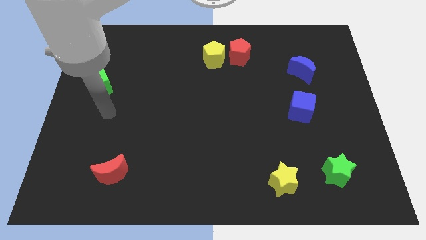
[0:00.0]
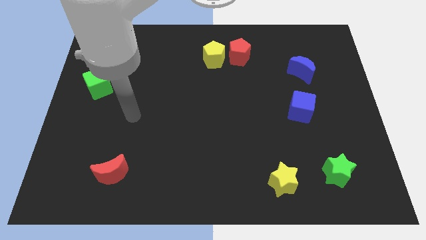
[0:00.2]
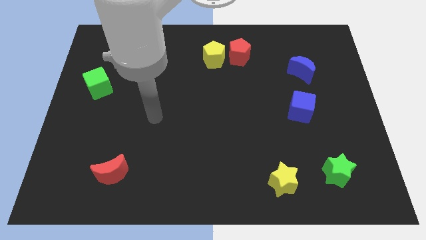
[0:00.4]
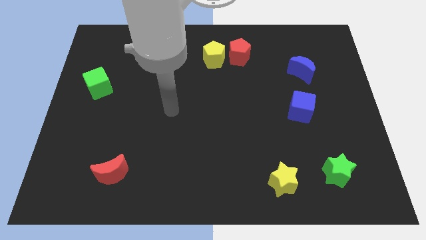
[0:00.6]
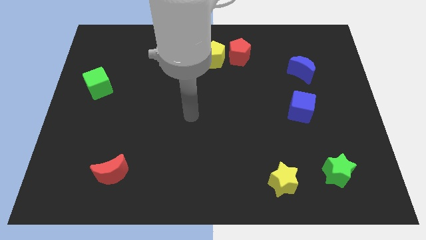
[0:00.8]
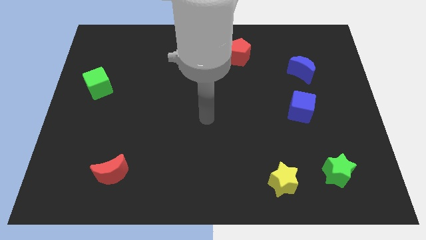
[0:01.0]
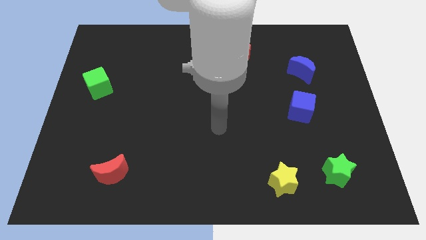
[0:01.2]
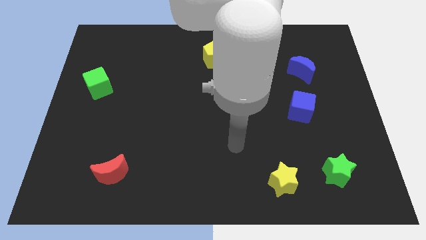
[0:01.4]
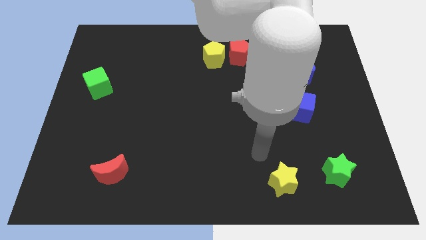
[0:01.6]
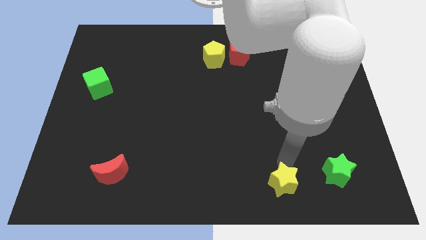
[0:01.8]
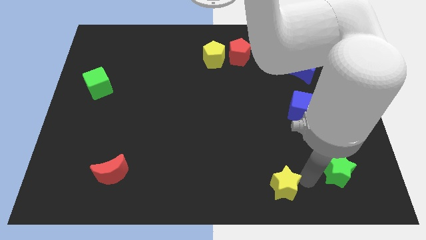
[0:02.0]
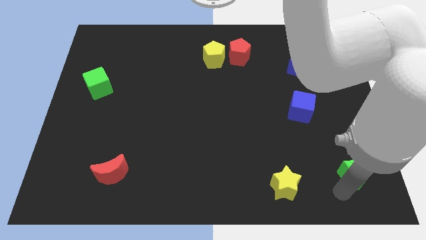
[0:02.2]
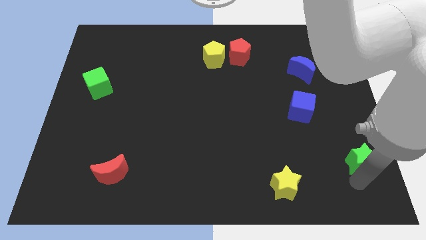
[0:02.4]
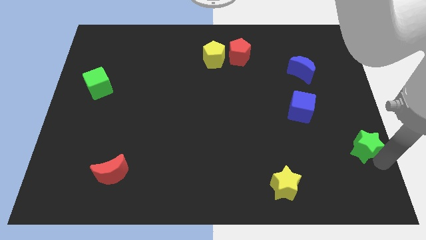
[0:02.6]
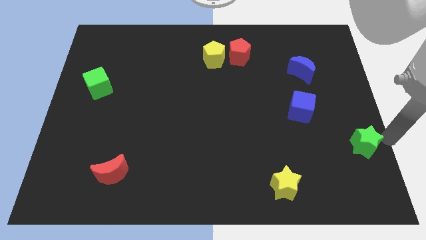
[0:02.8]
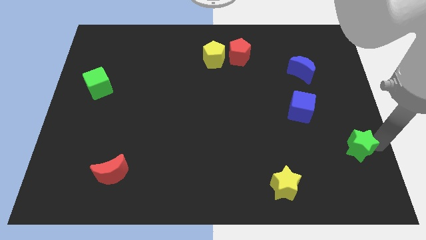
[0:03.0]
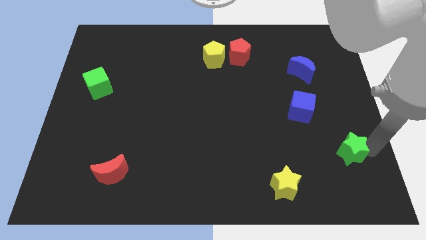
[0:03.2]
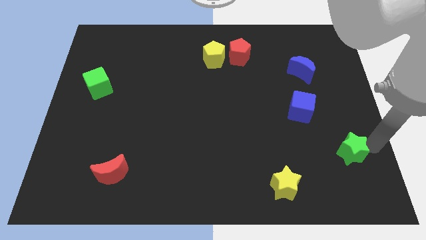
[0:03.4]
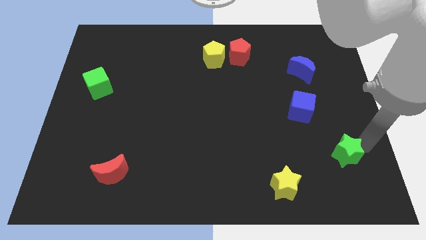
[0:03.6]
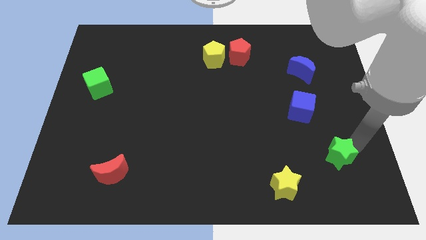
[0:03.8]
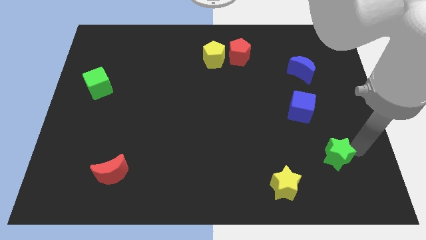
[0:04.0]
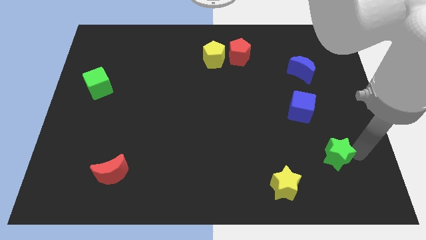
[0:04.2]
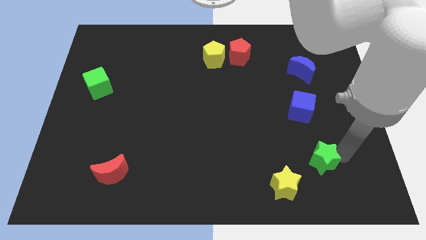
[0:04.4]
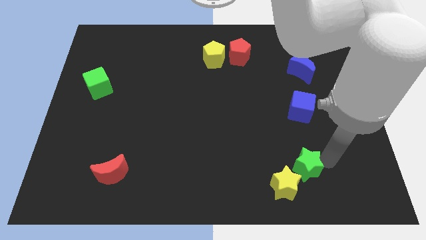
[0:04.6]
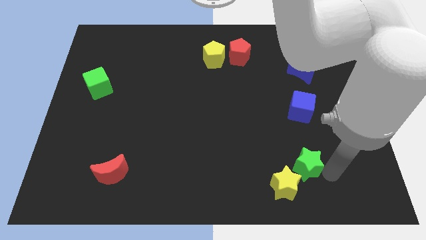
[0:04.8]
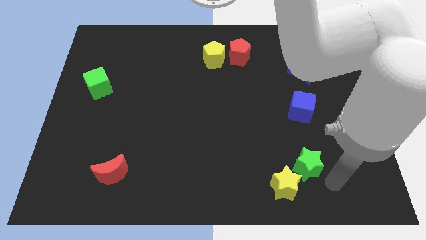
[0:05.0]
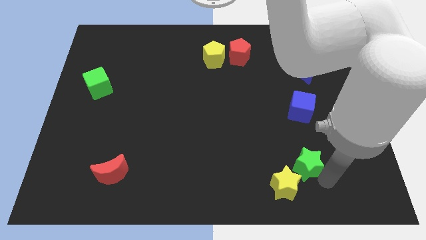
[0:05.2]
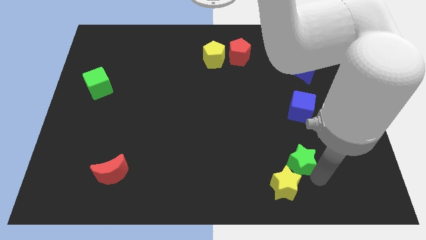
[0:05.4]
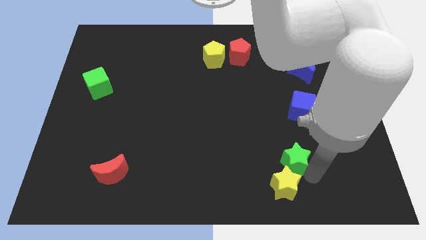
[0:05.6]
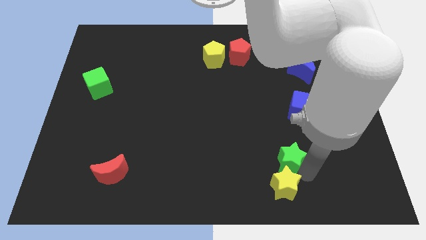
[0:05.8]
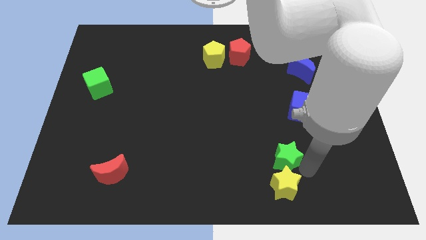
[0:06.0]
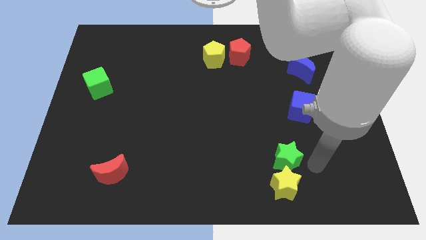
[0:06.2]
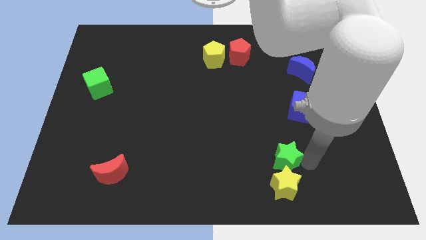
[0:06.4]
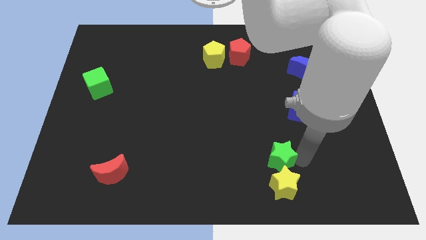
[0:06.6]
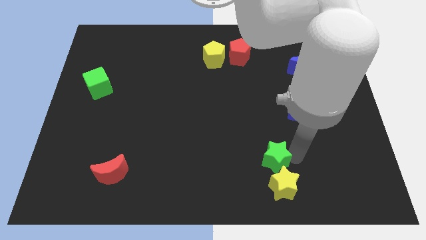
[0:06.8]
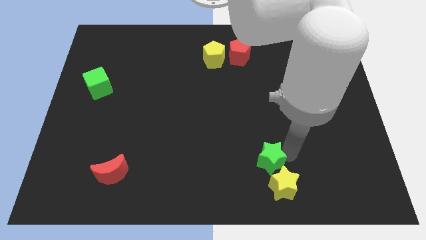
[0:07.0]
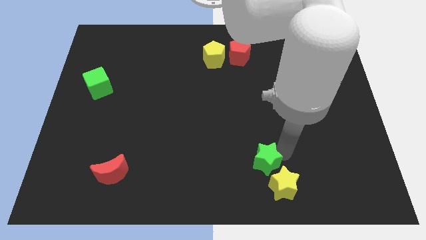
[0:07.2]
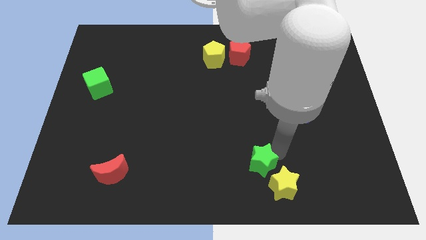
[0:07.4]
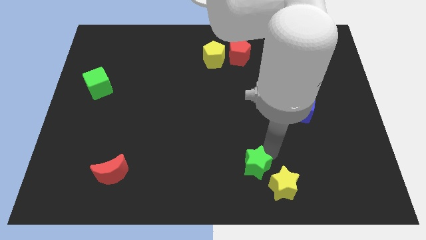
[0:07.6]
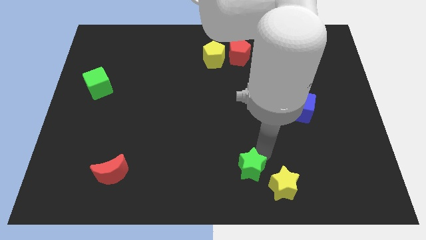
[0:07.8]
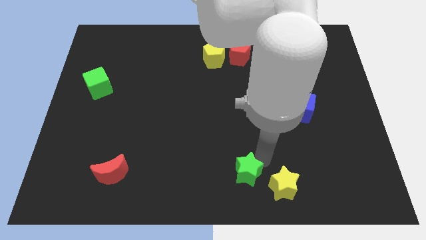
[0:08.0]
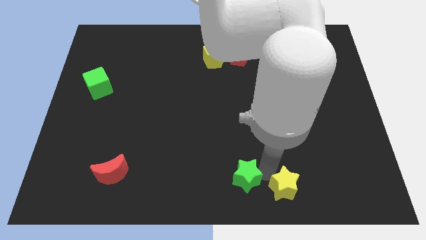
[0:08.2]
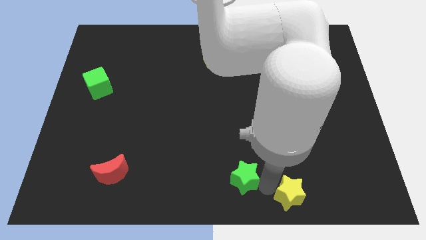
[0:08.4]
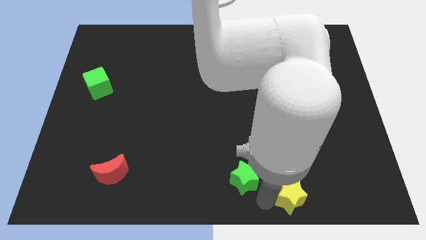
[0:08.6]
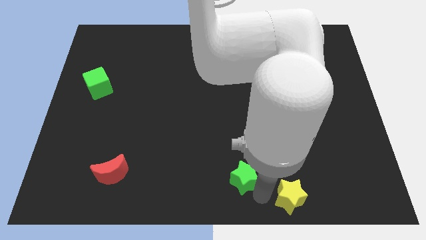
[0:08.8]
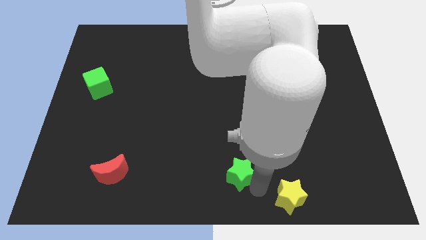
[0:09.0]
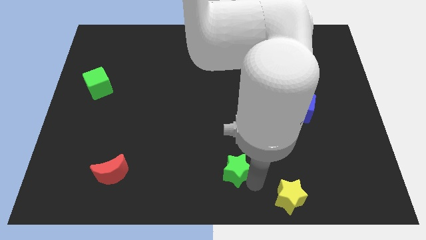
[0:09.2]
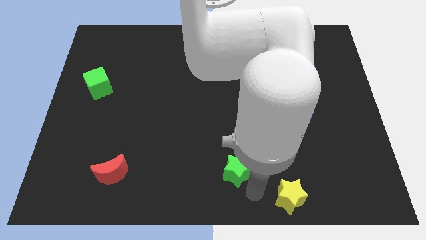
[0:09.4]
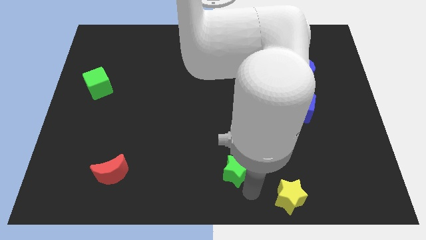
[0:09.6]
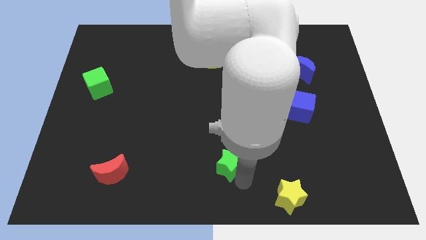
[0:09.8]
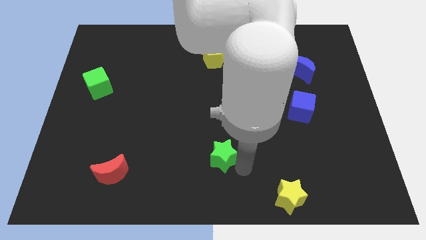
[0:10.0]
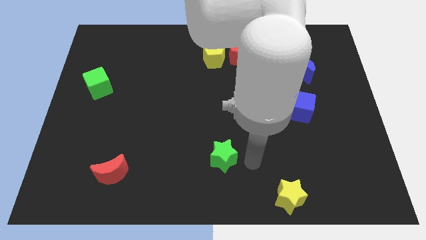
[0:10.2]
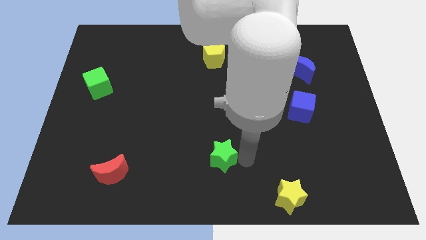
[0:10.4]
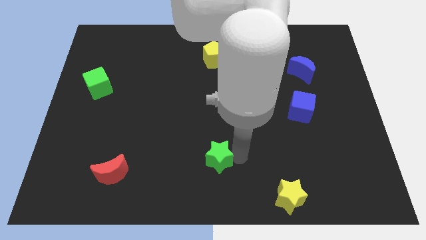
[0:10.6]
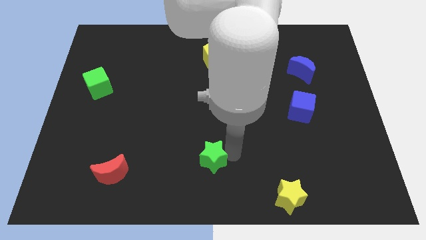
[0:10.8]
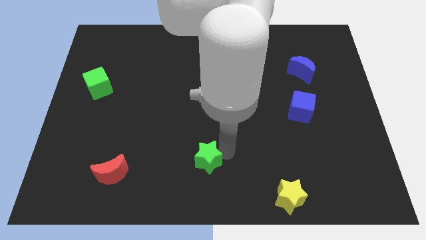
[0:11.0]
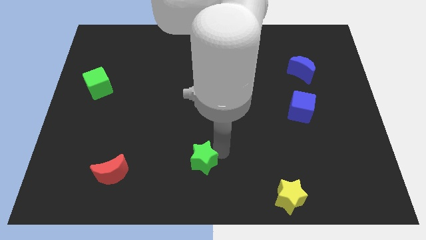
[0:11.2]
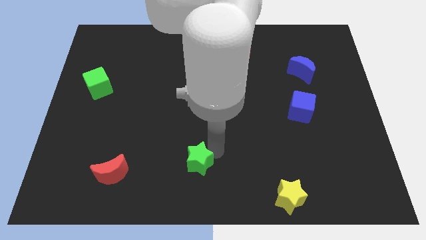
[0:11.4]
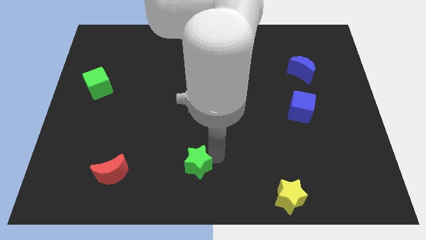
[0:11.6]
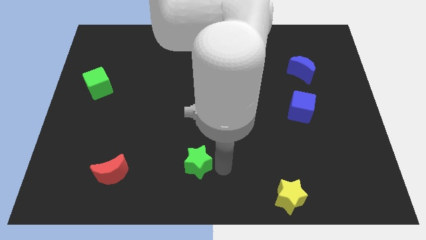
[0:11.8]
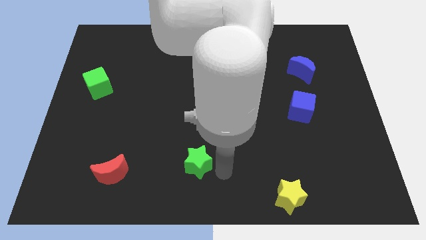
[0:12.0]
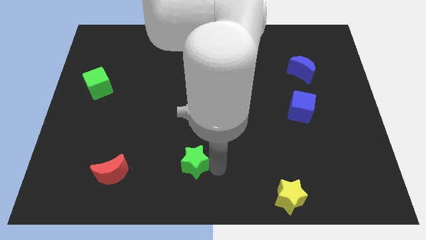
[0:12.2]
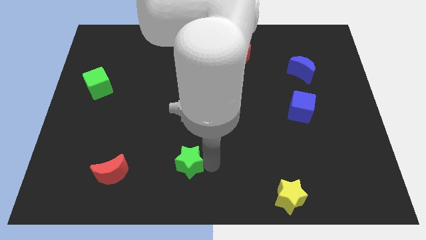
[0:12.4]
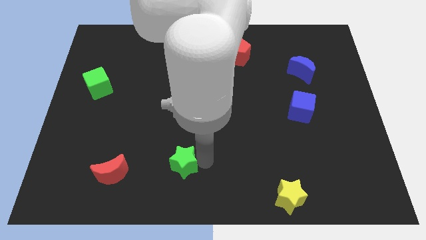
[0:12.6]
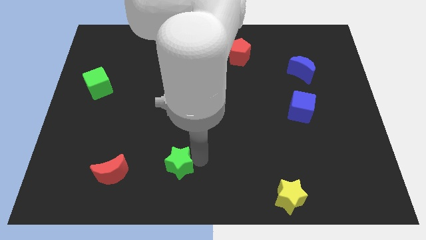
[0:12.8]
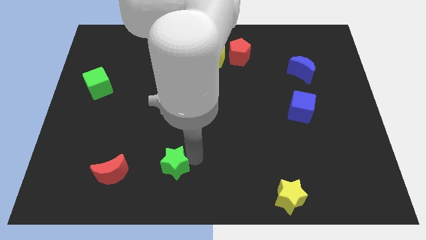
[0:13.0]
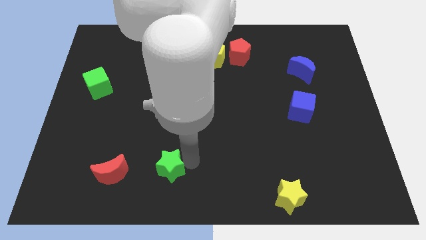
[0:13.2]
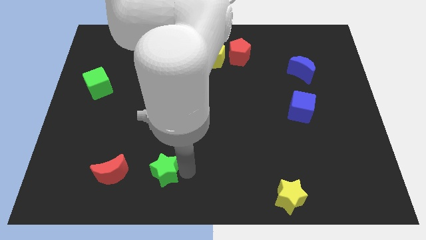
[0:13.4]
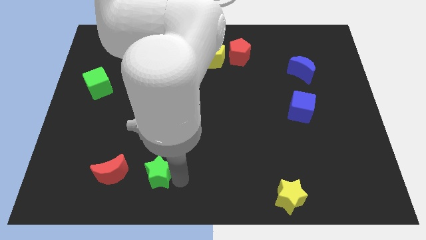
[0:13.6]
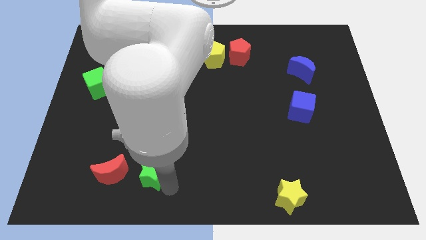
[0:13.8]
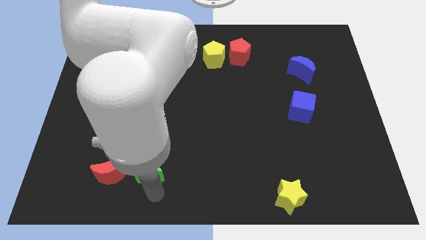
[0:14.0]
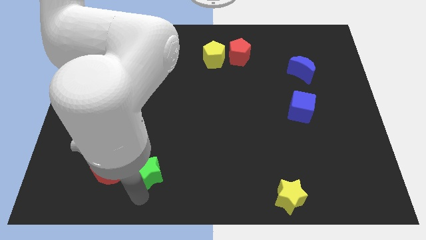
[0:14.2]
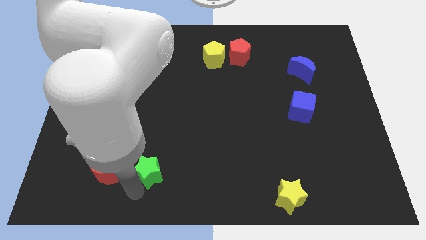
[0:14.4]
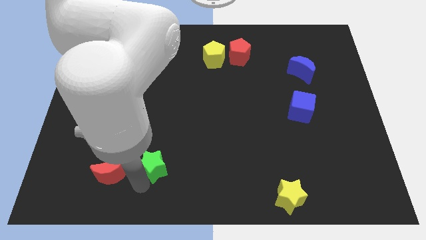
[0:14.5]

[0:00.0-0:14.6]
slide the green star diagonally up and to the right of the red moon
